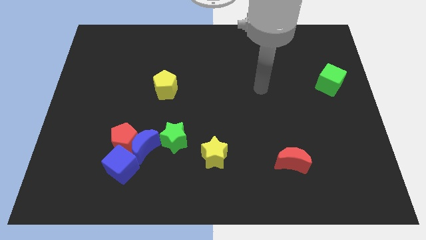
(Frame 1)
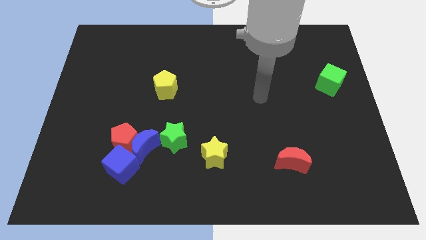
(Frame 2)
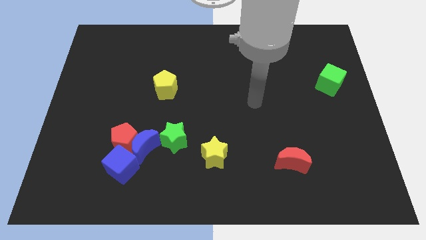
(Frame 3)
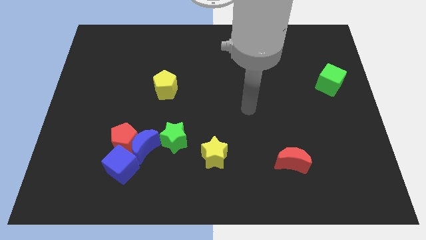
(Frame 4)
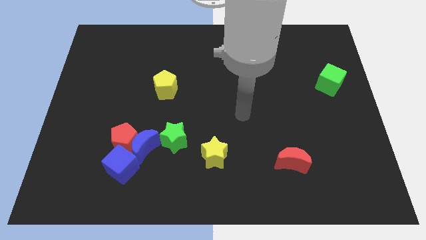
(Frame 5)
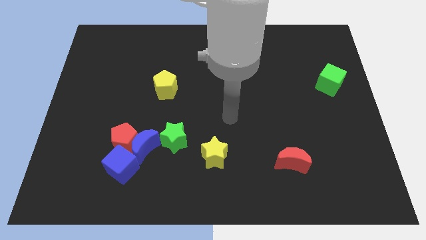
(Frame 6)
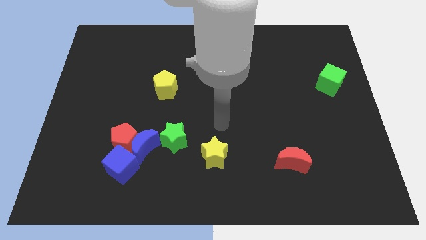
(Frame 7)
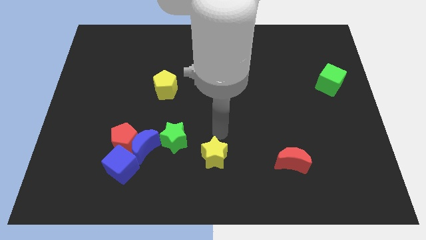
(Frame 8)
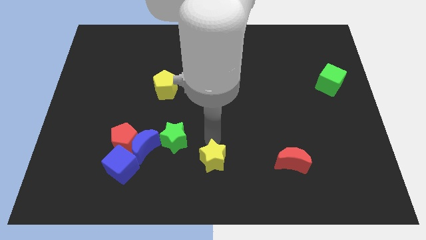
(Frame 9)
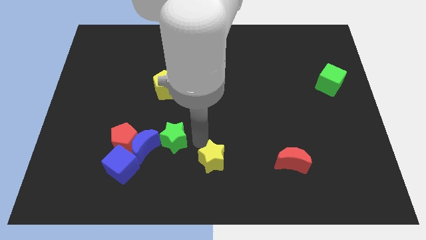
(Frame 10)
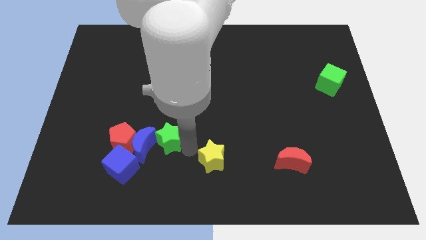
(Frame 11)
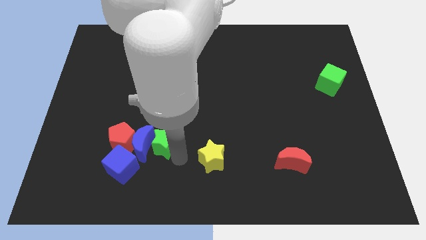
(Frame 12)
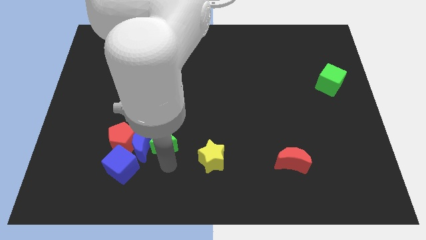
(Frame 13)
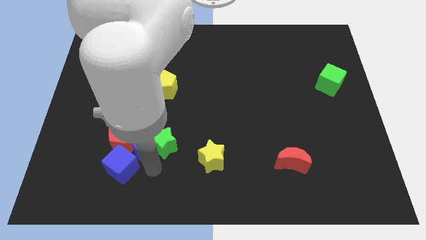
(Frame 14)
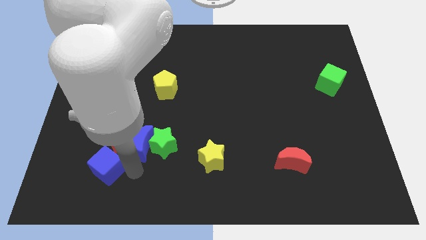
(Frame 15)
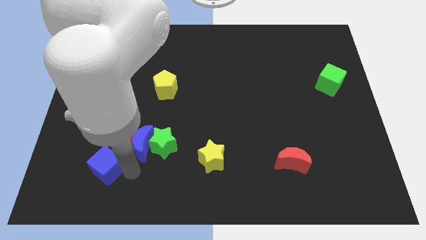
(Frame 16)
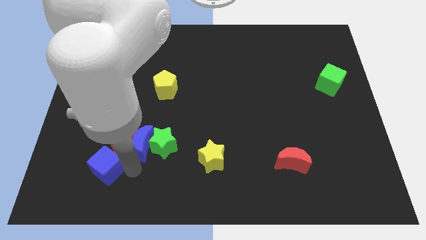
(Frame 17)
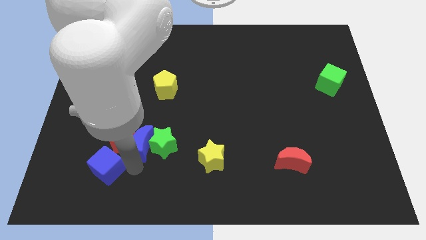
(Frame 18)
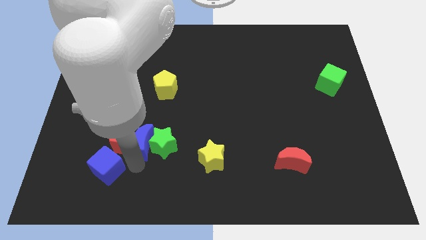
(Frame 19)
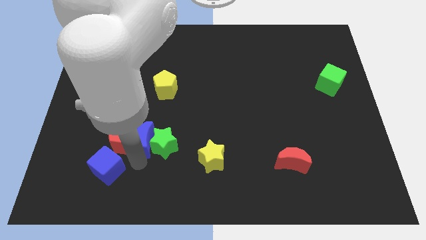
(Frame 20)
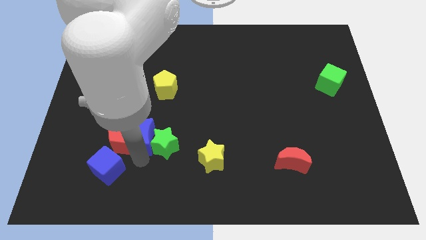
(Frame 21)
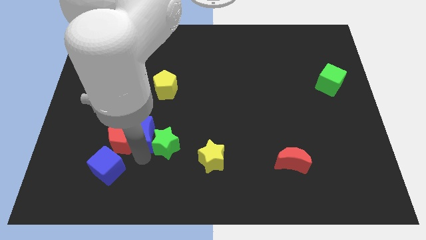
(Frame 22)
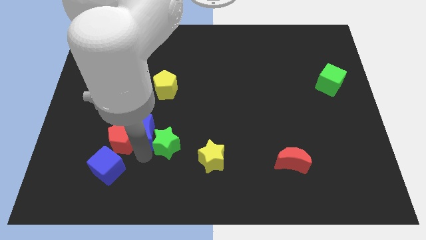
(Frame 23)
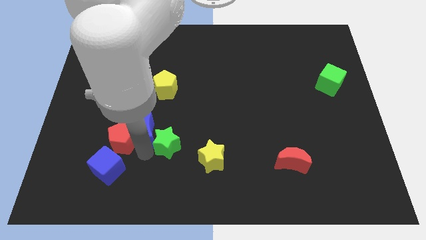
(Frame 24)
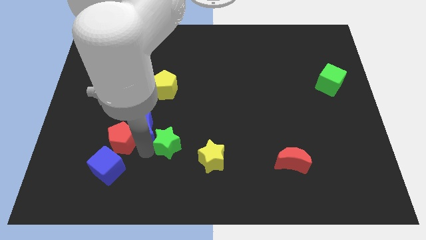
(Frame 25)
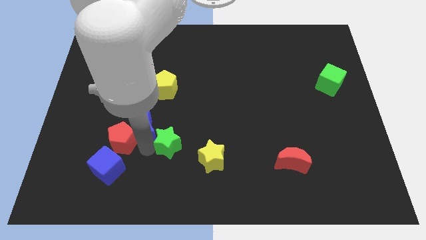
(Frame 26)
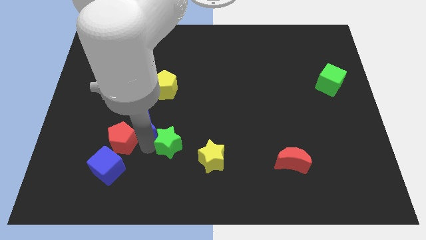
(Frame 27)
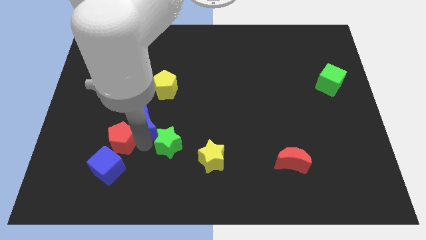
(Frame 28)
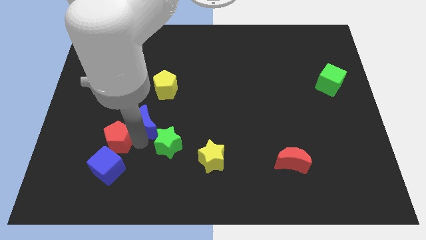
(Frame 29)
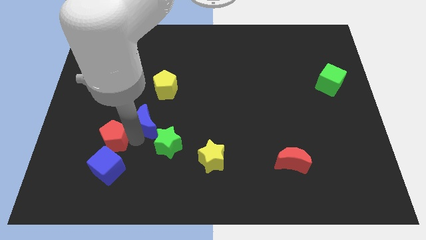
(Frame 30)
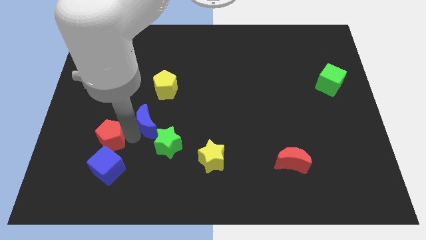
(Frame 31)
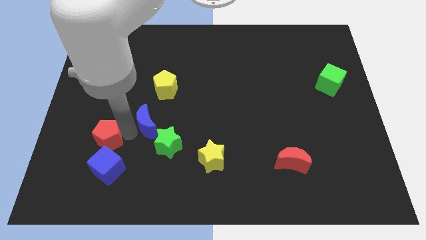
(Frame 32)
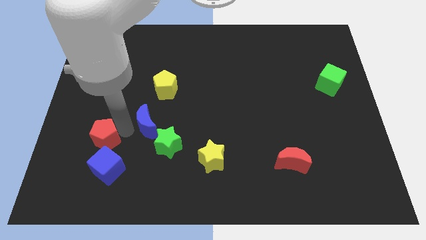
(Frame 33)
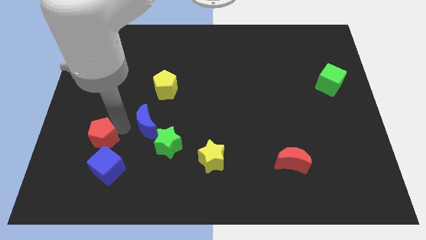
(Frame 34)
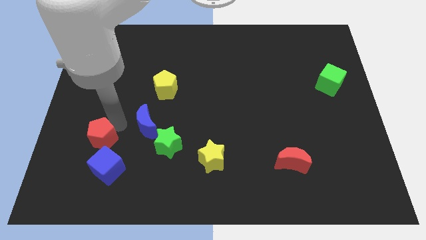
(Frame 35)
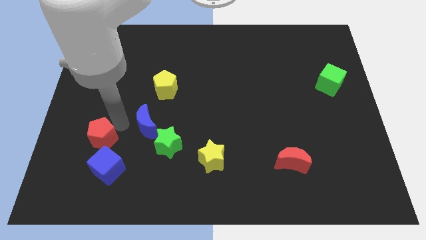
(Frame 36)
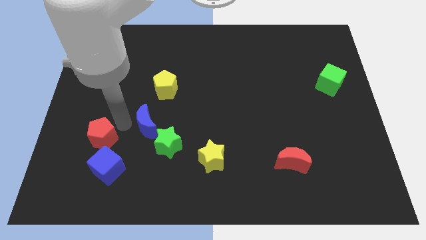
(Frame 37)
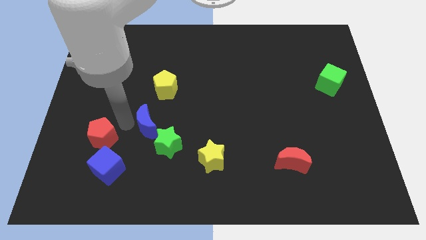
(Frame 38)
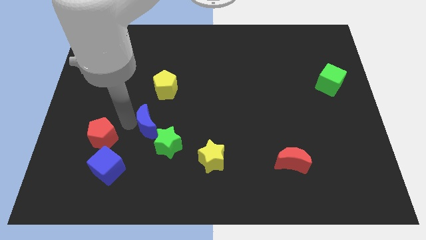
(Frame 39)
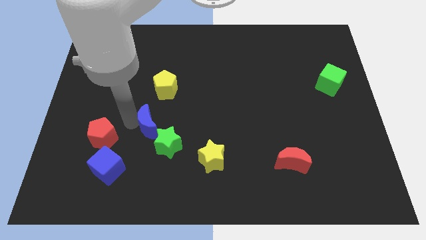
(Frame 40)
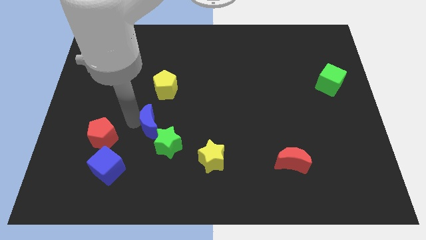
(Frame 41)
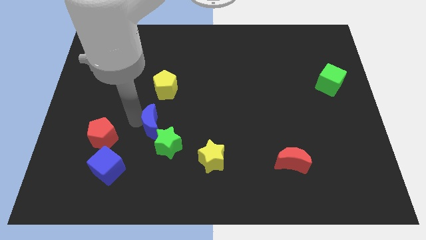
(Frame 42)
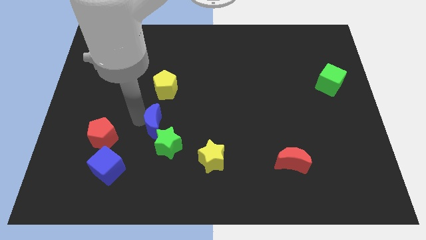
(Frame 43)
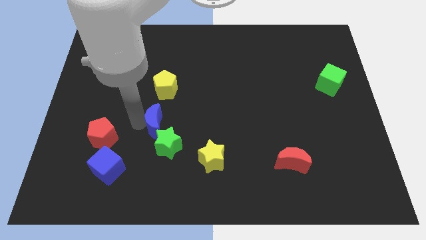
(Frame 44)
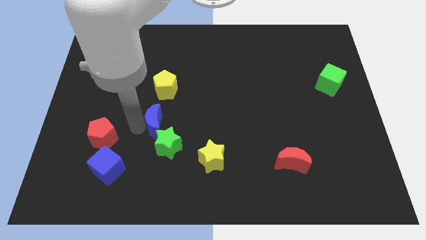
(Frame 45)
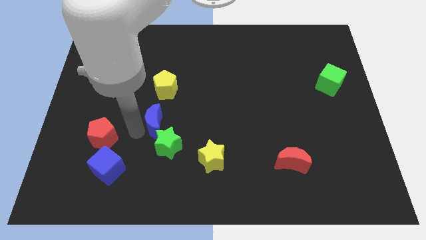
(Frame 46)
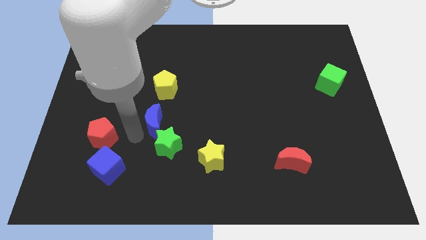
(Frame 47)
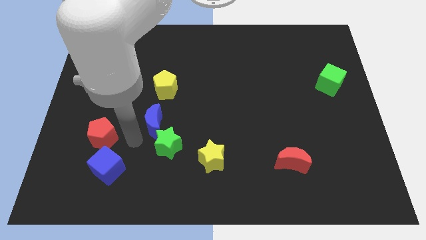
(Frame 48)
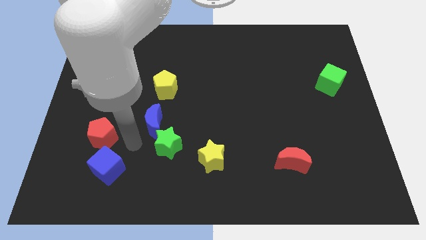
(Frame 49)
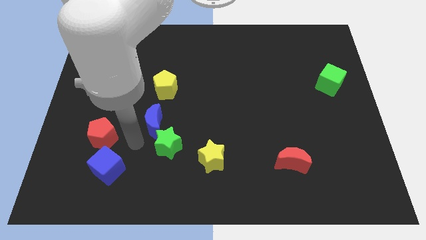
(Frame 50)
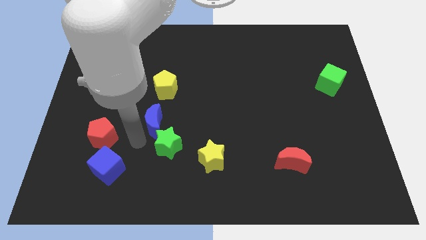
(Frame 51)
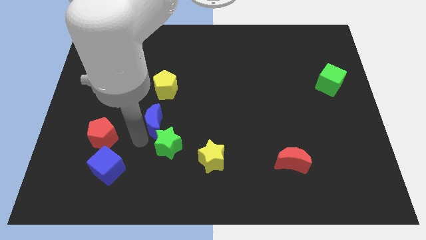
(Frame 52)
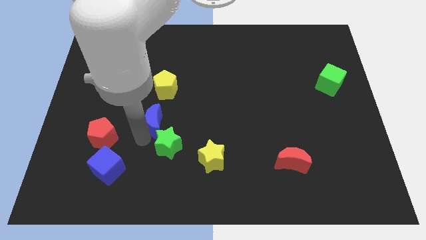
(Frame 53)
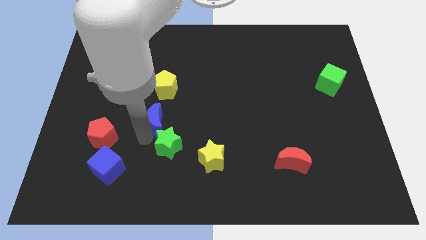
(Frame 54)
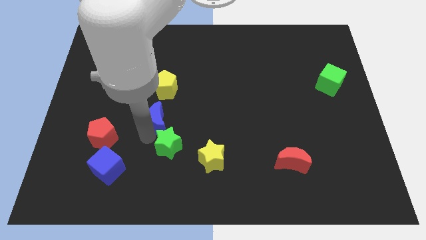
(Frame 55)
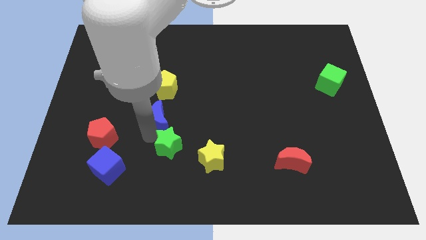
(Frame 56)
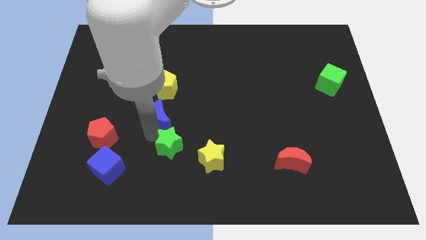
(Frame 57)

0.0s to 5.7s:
pull the blue moon apart from the group

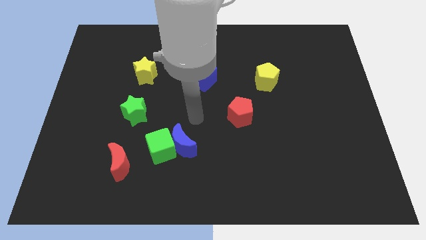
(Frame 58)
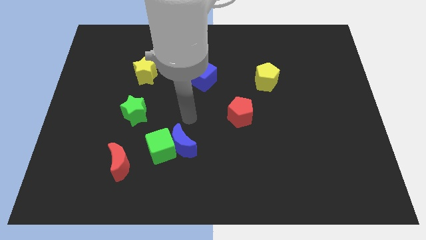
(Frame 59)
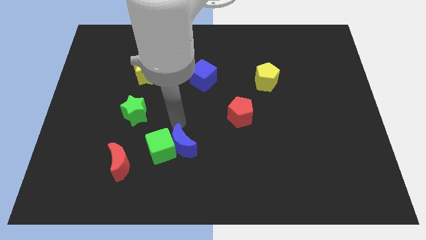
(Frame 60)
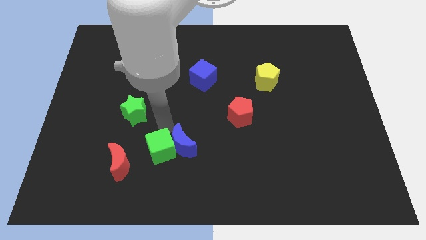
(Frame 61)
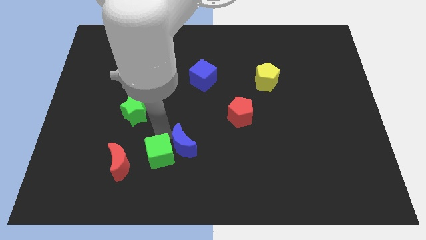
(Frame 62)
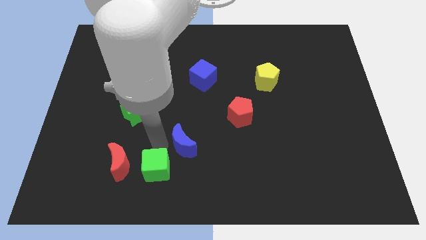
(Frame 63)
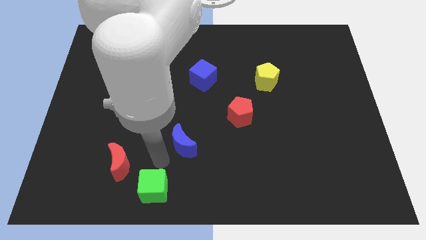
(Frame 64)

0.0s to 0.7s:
pull the blue moon apart from the green cube

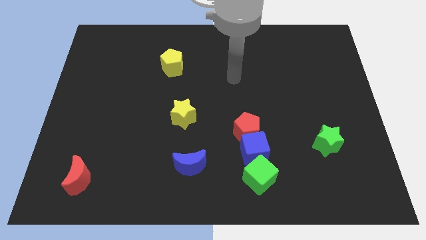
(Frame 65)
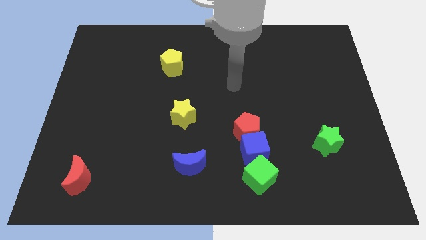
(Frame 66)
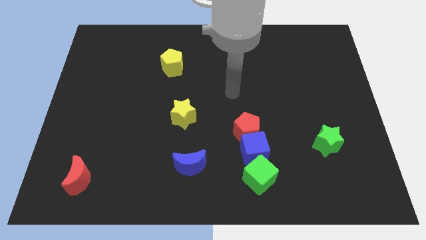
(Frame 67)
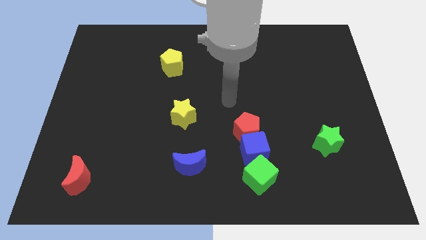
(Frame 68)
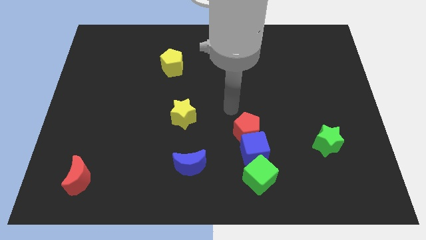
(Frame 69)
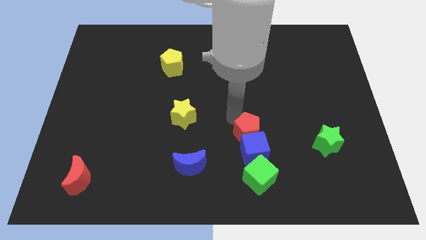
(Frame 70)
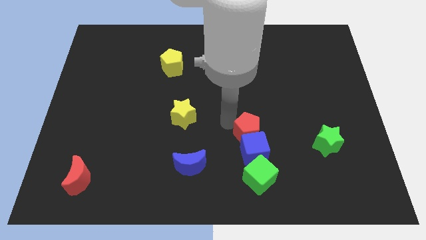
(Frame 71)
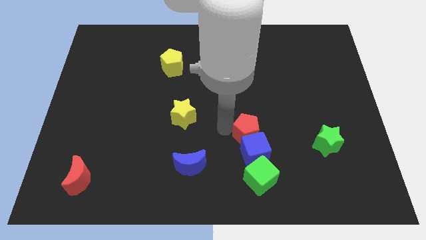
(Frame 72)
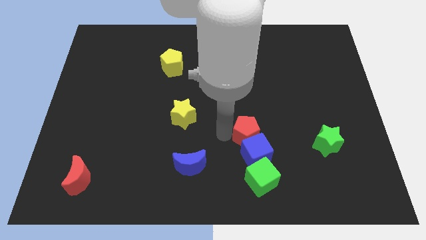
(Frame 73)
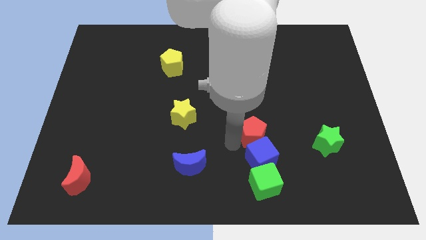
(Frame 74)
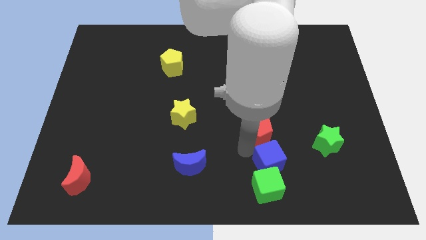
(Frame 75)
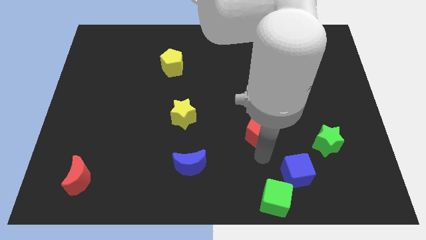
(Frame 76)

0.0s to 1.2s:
separate the red pentagon from the blue cube

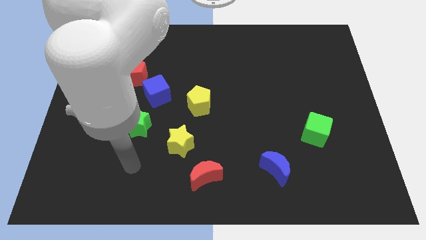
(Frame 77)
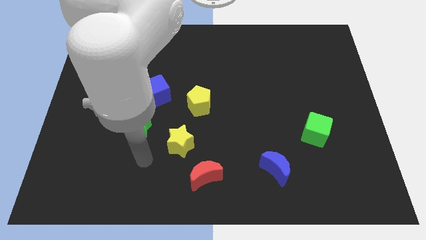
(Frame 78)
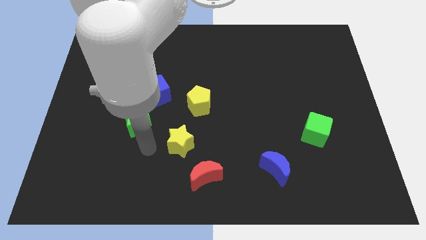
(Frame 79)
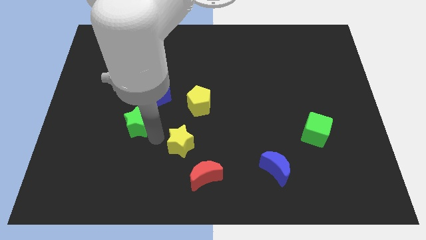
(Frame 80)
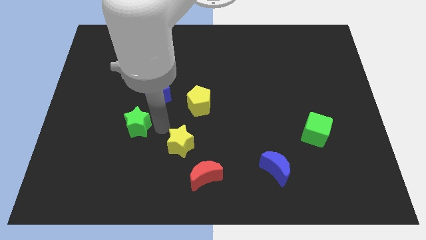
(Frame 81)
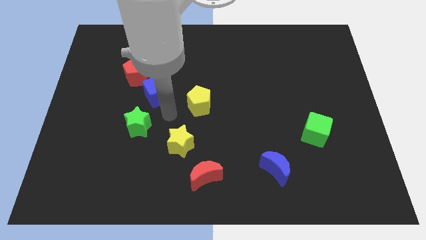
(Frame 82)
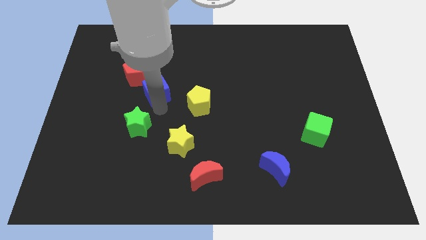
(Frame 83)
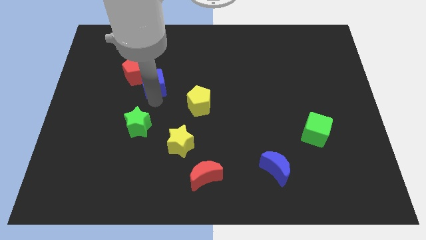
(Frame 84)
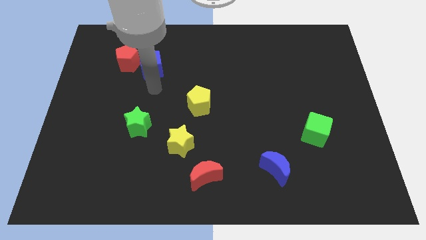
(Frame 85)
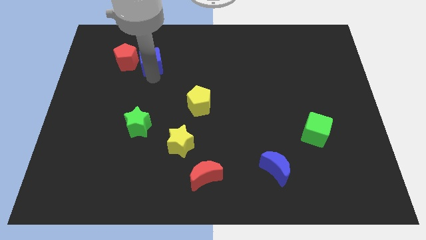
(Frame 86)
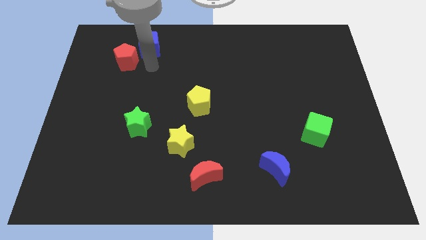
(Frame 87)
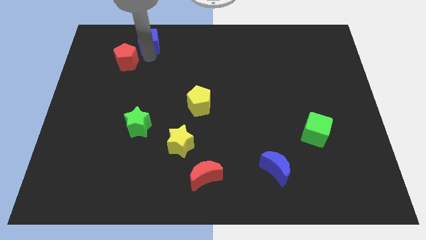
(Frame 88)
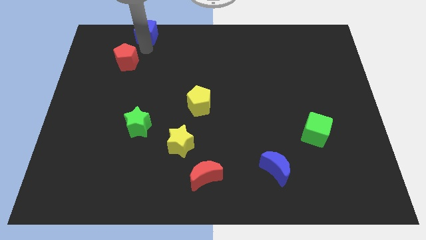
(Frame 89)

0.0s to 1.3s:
move the red pentagon away from the blue cube

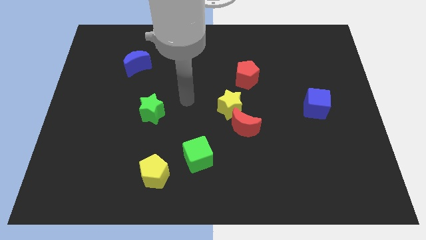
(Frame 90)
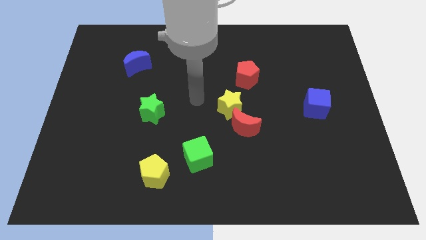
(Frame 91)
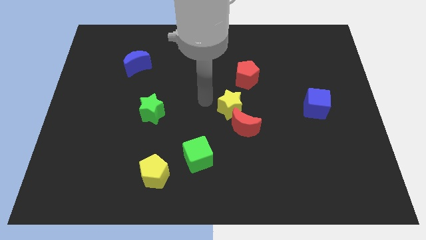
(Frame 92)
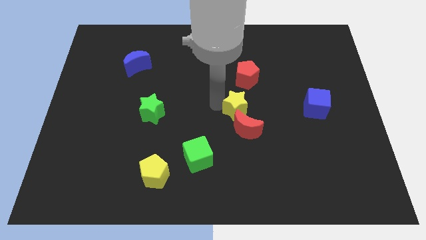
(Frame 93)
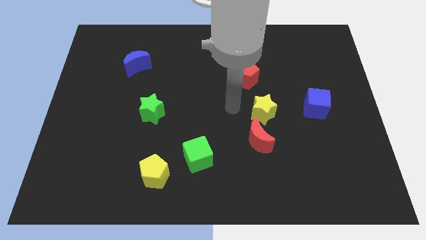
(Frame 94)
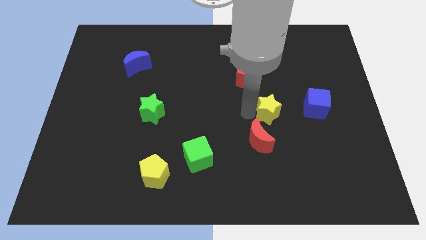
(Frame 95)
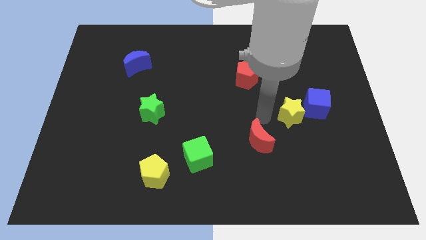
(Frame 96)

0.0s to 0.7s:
separate the red moon from the yellow star
